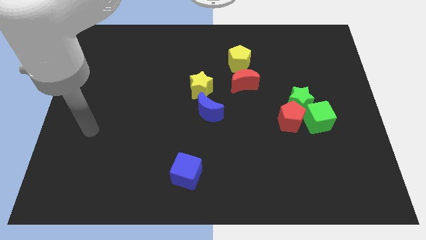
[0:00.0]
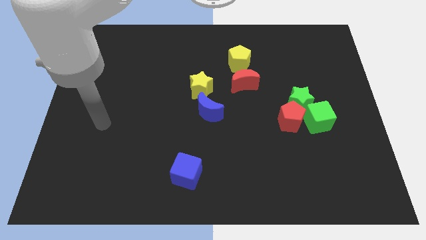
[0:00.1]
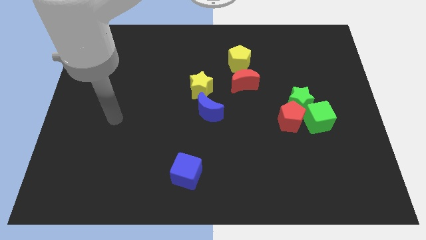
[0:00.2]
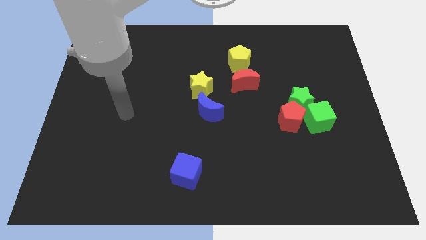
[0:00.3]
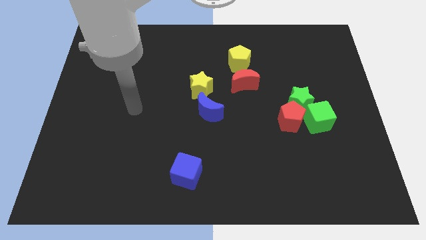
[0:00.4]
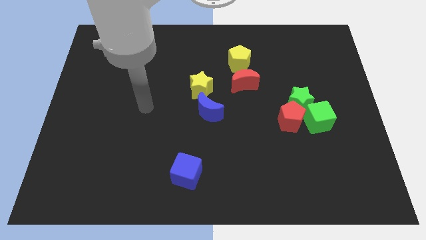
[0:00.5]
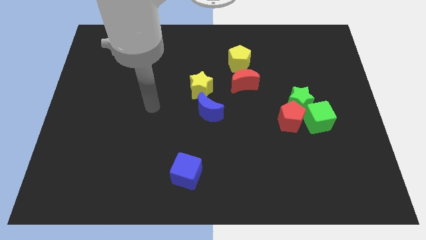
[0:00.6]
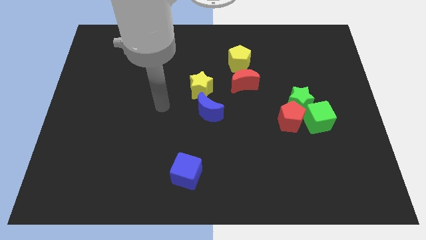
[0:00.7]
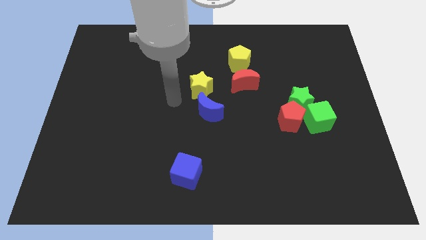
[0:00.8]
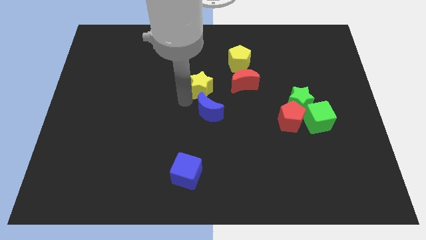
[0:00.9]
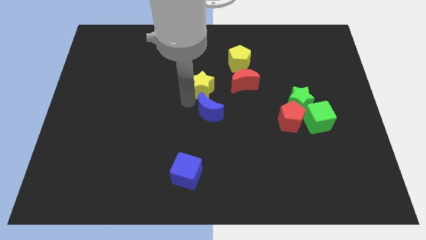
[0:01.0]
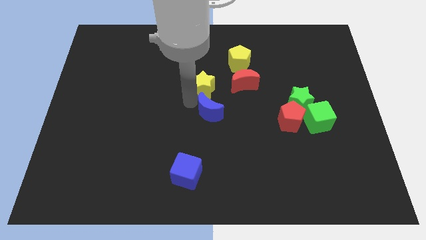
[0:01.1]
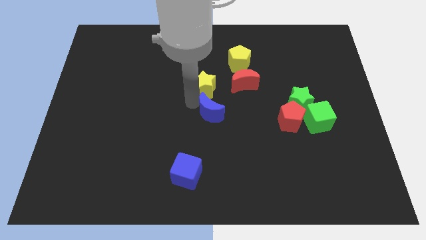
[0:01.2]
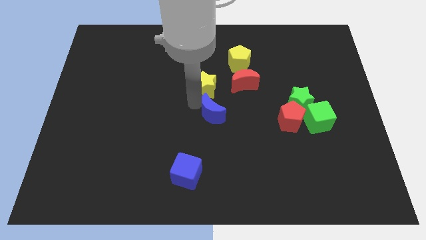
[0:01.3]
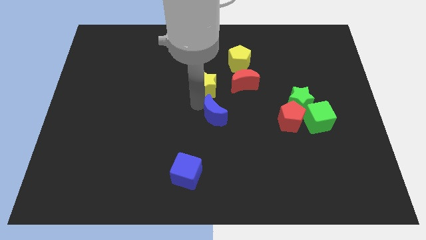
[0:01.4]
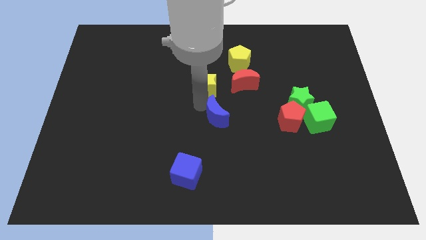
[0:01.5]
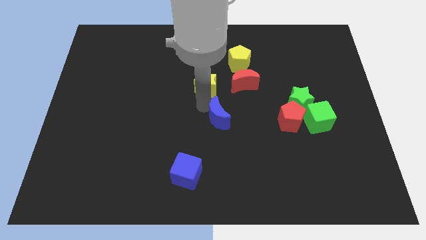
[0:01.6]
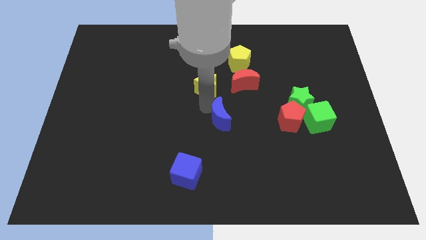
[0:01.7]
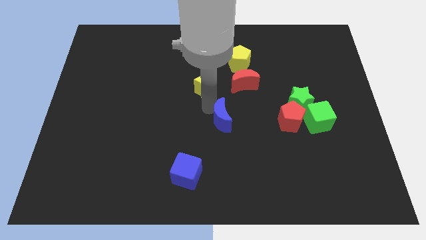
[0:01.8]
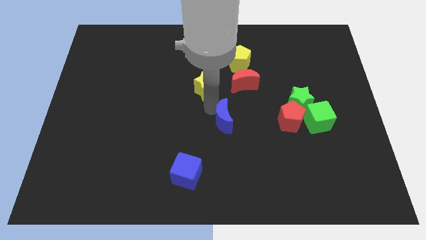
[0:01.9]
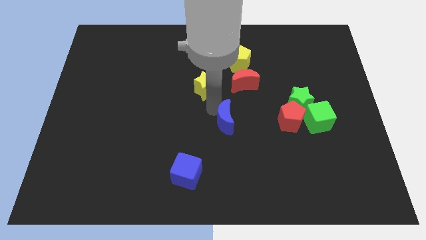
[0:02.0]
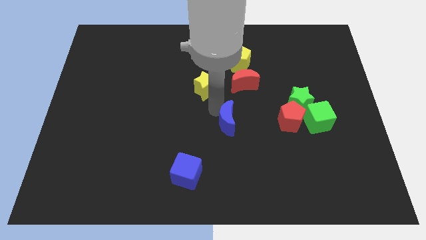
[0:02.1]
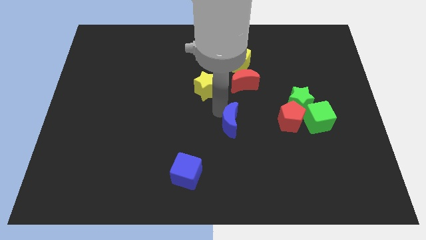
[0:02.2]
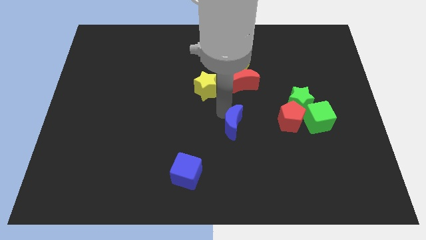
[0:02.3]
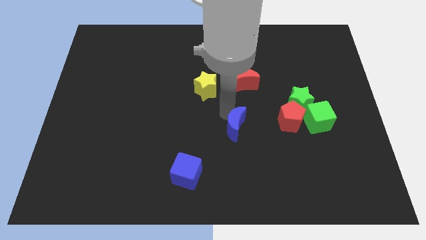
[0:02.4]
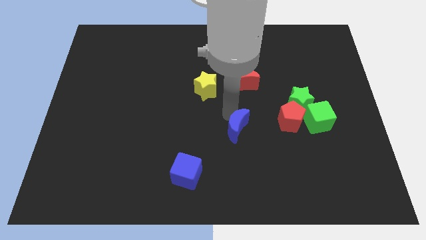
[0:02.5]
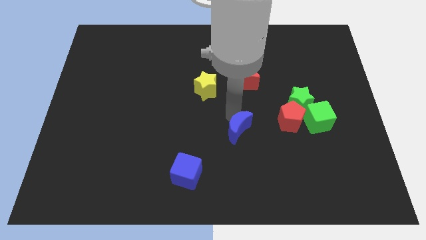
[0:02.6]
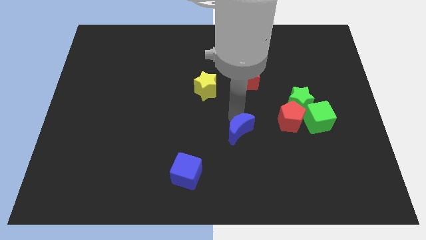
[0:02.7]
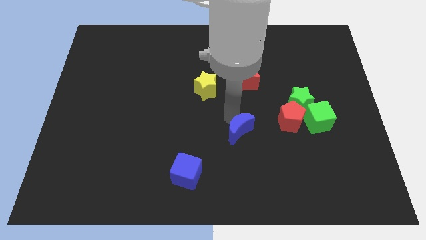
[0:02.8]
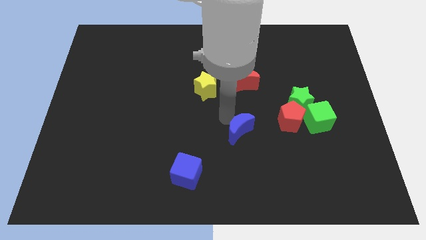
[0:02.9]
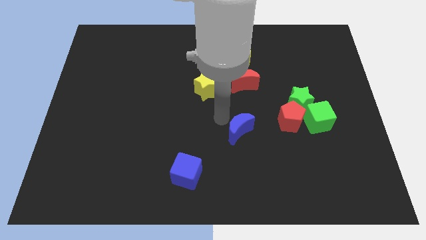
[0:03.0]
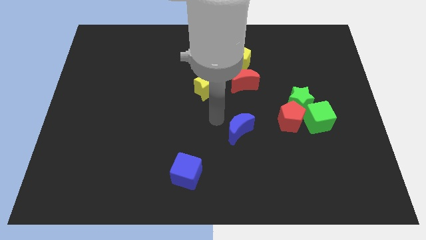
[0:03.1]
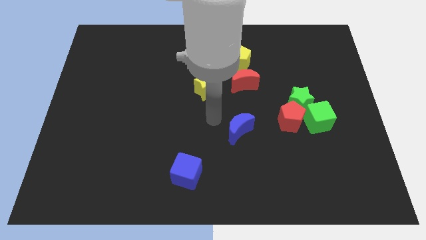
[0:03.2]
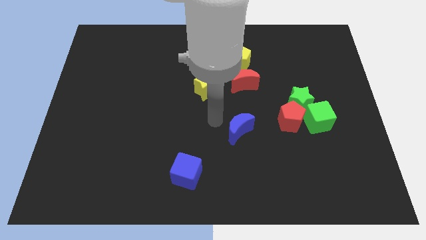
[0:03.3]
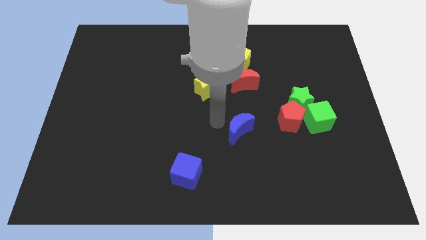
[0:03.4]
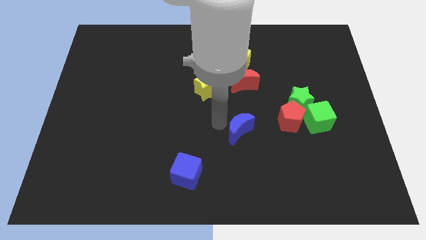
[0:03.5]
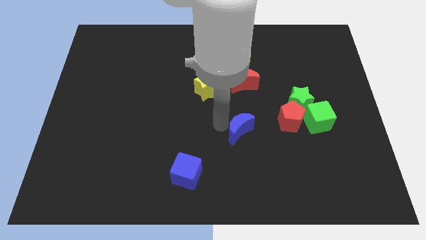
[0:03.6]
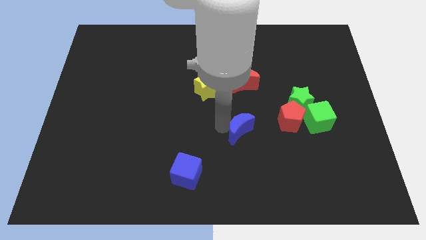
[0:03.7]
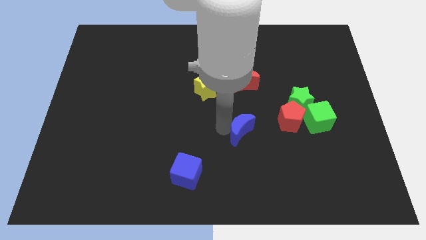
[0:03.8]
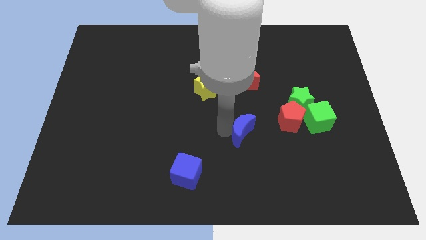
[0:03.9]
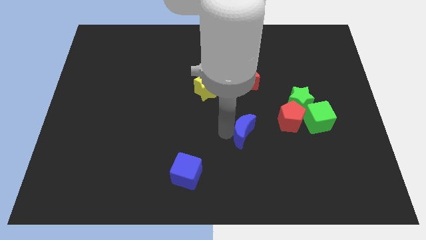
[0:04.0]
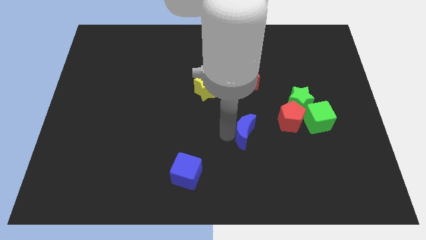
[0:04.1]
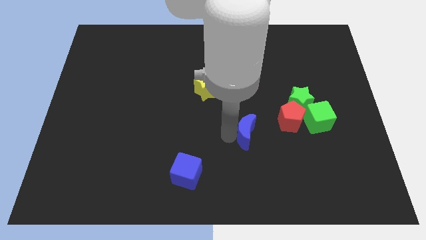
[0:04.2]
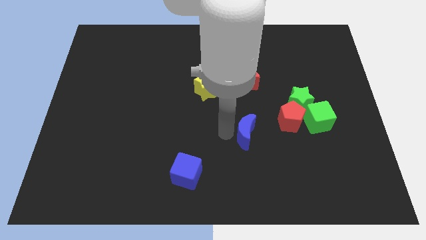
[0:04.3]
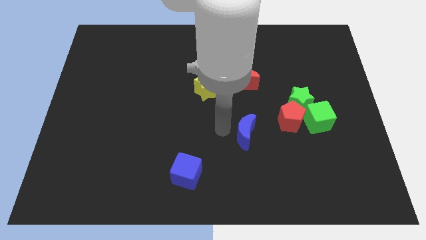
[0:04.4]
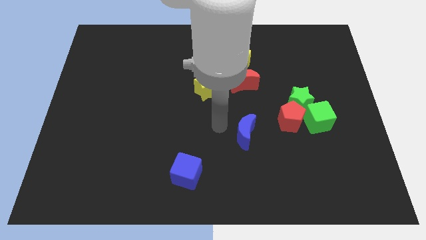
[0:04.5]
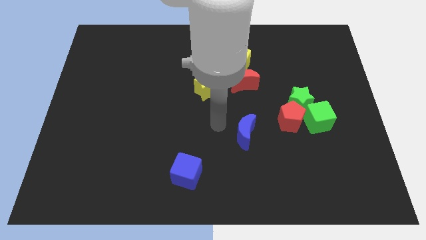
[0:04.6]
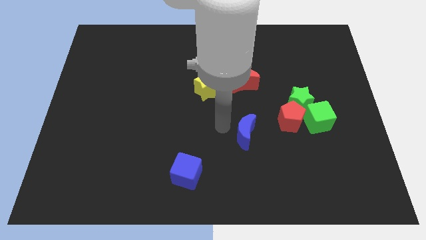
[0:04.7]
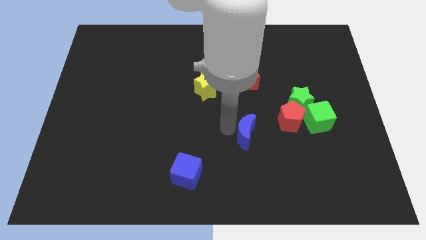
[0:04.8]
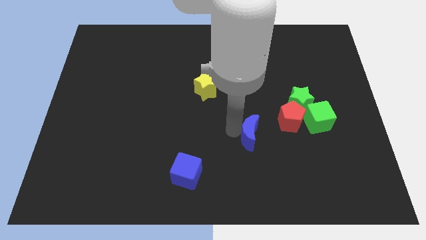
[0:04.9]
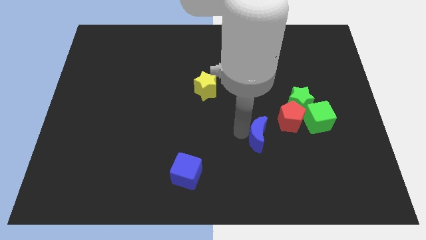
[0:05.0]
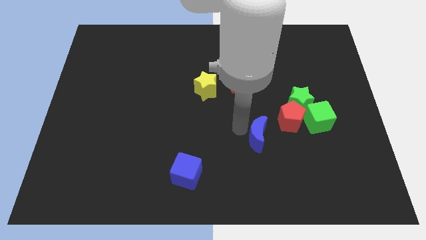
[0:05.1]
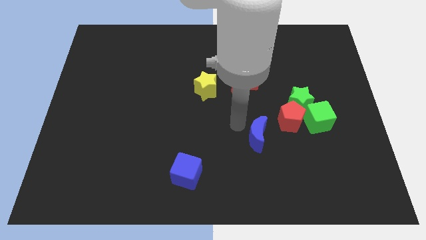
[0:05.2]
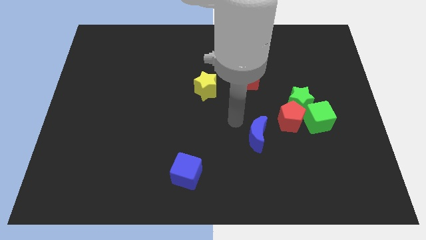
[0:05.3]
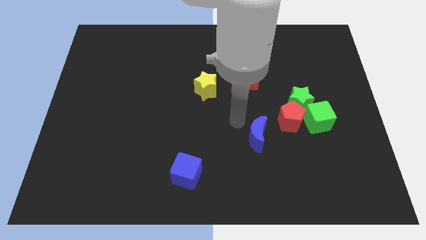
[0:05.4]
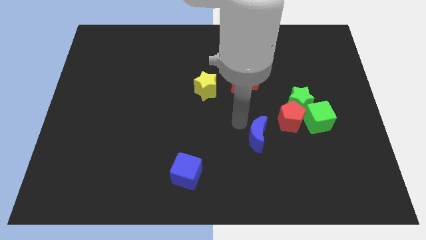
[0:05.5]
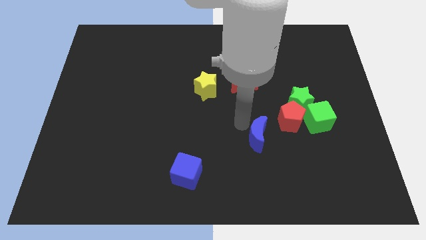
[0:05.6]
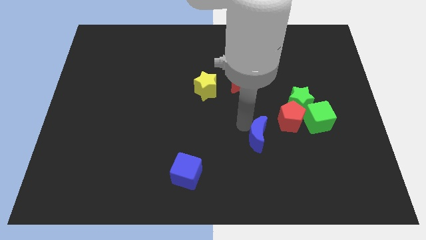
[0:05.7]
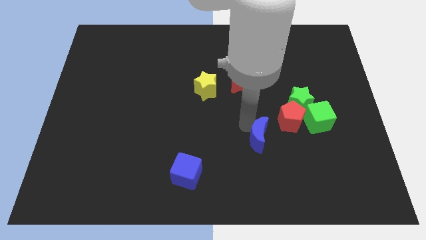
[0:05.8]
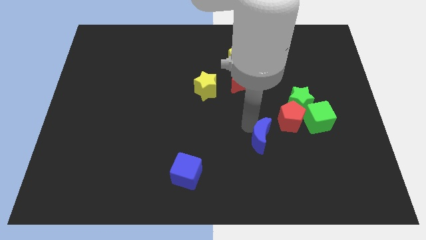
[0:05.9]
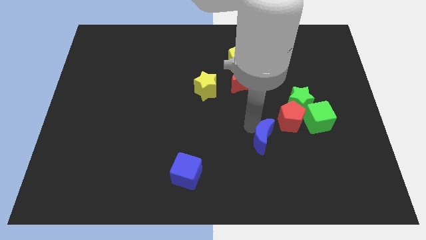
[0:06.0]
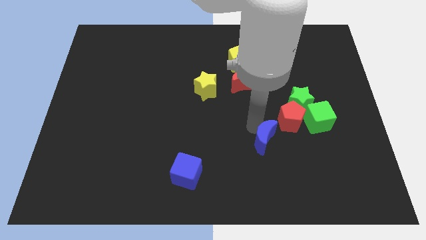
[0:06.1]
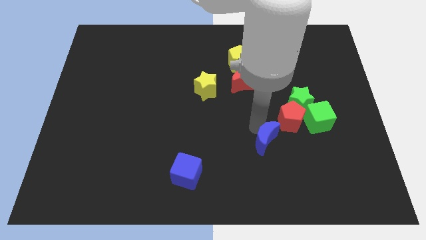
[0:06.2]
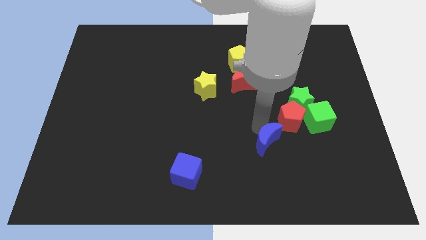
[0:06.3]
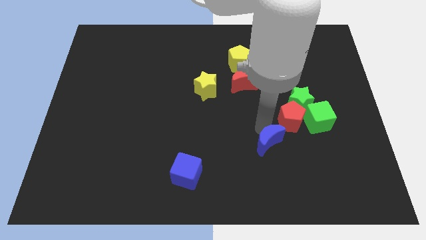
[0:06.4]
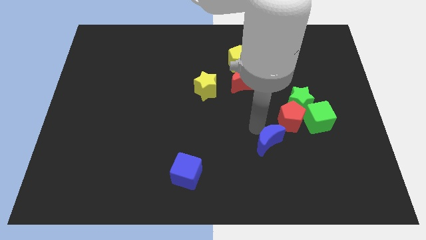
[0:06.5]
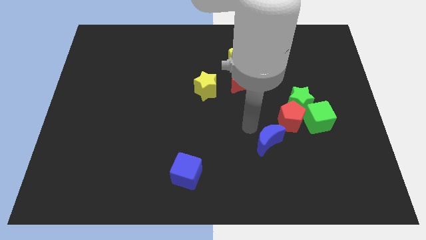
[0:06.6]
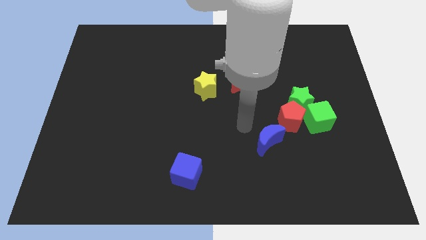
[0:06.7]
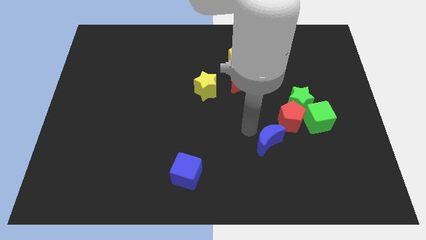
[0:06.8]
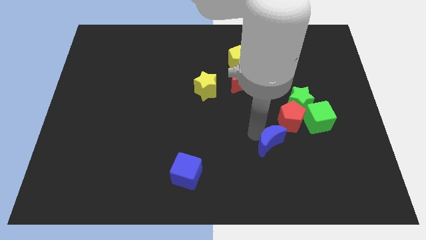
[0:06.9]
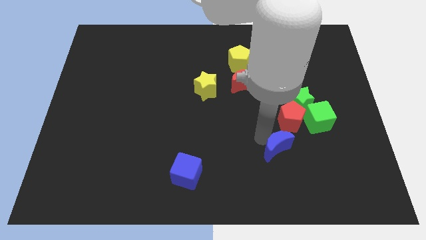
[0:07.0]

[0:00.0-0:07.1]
put the blue moon to the bottom side of the red pentagon
